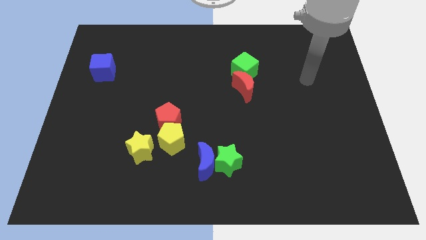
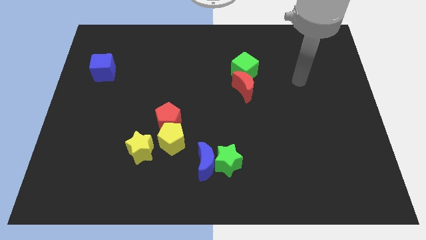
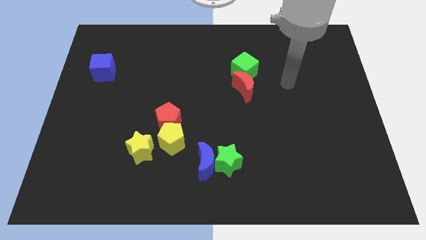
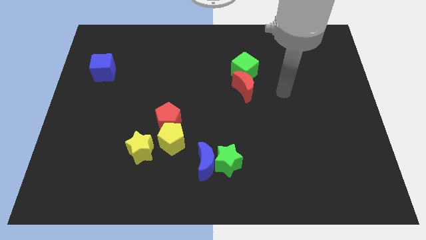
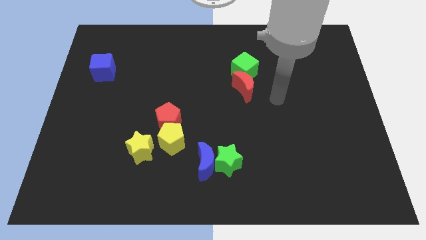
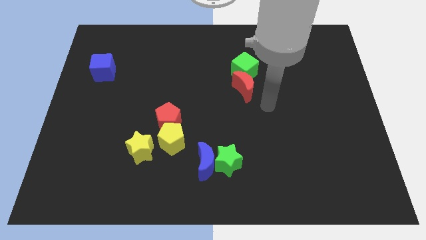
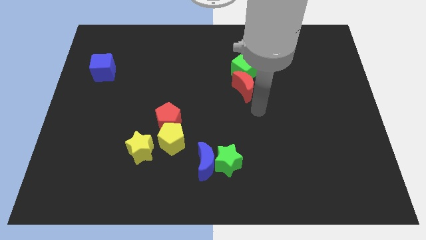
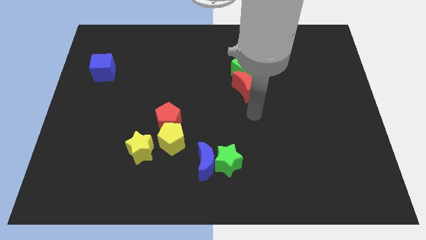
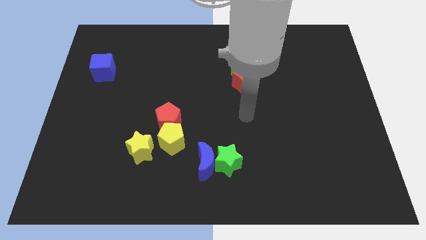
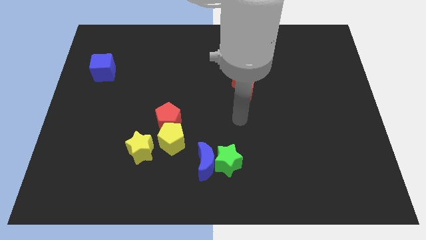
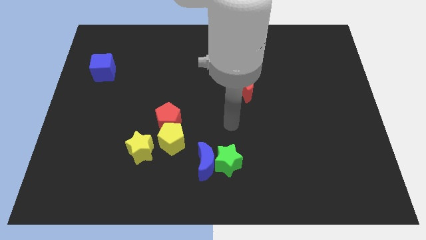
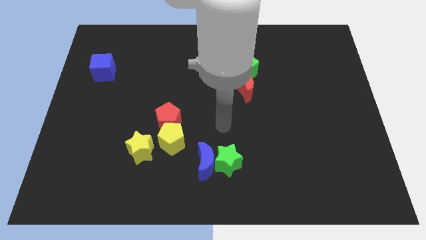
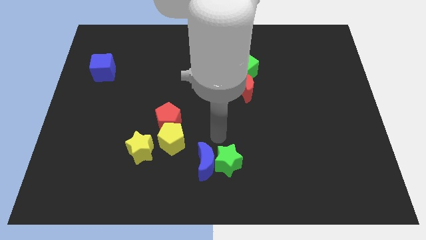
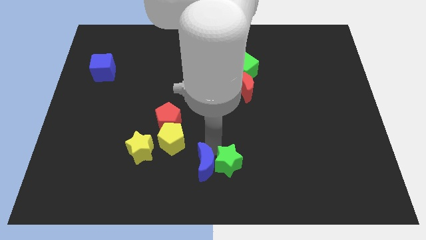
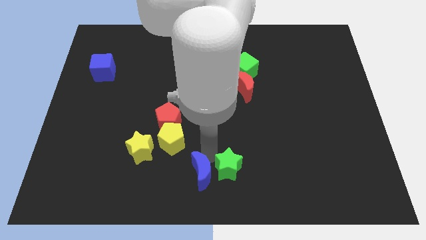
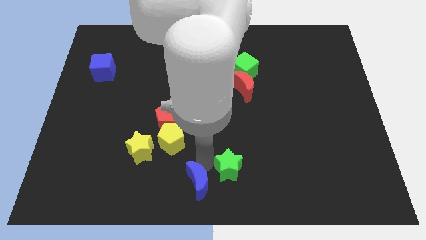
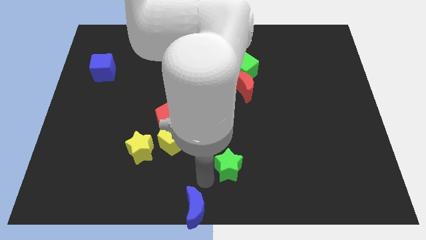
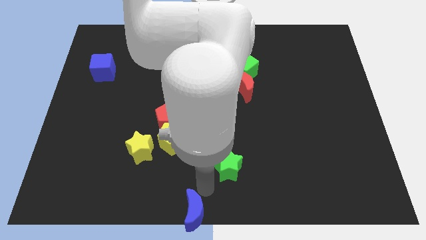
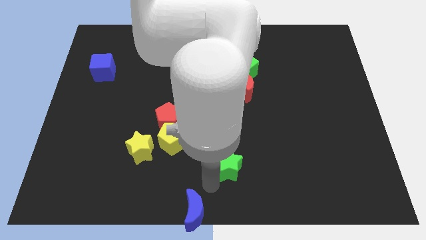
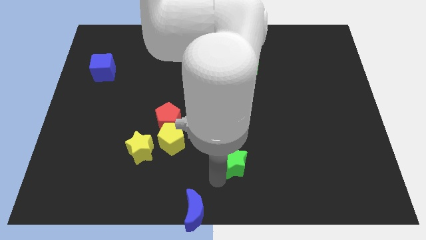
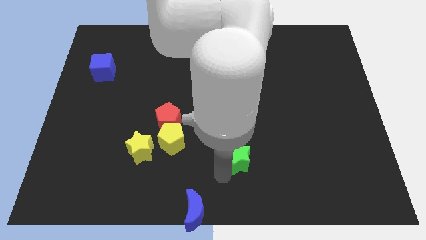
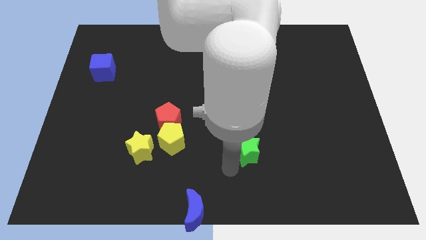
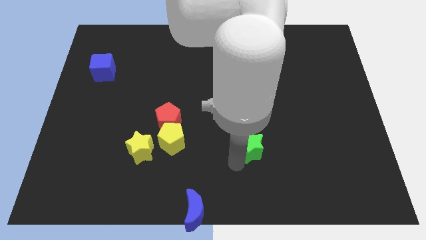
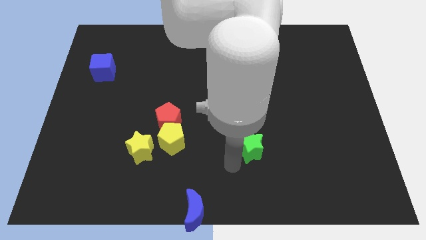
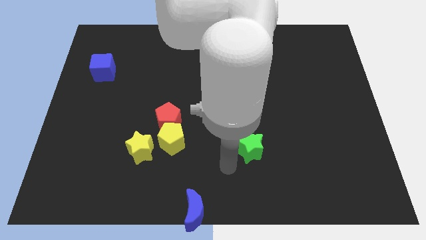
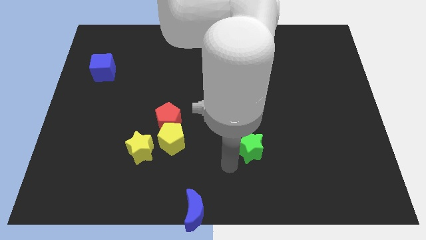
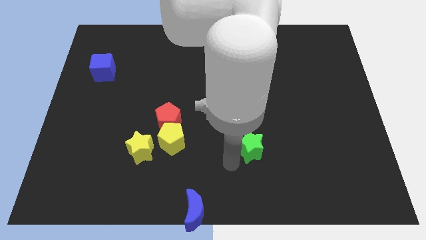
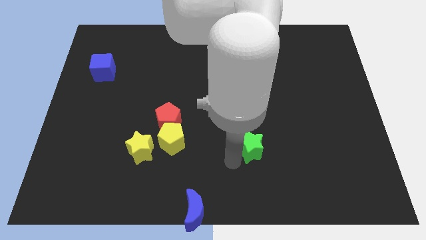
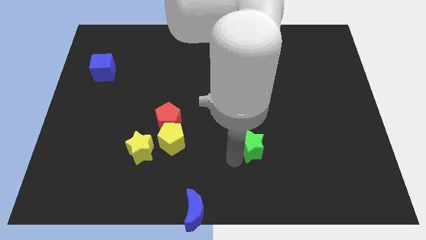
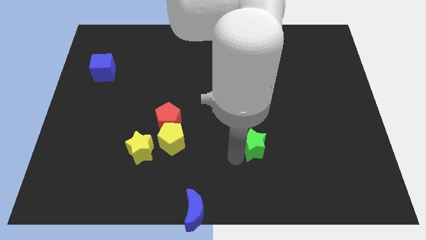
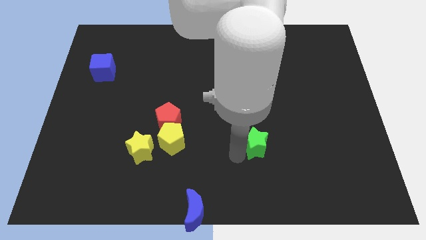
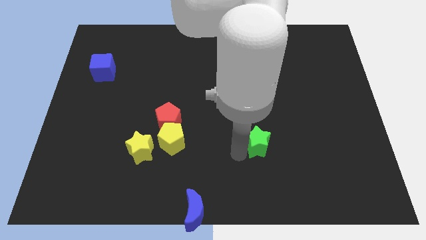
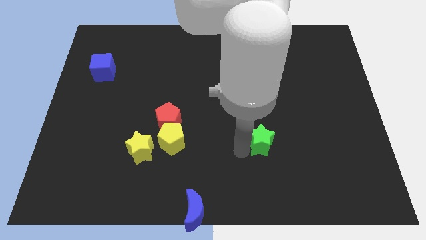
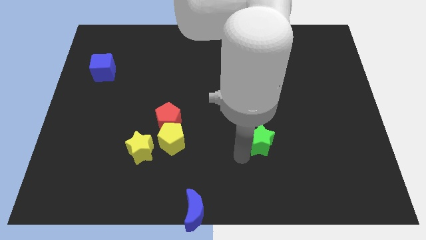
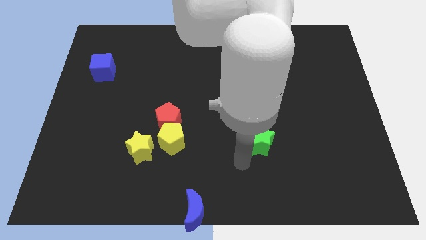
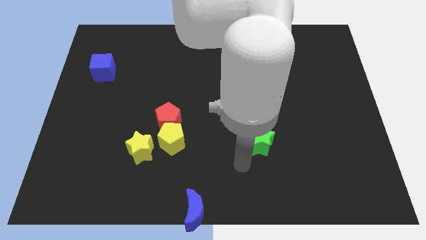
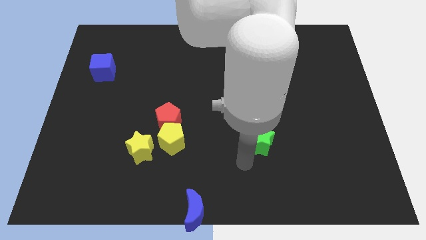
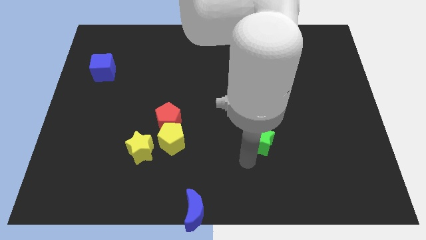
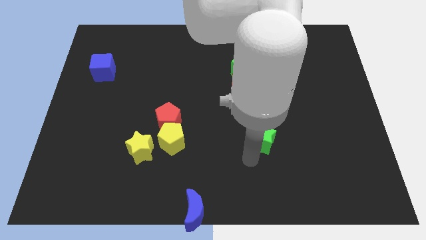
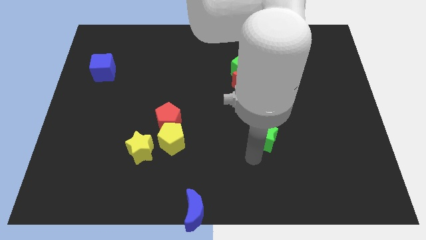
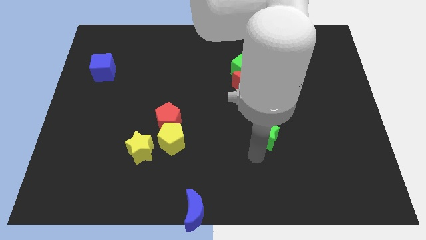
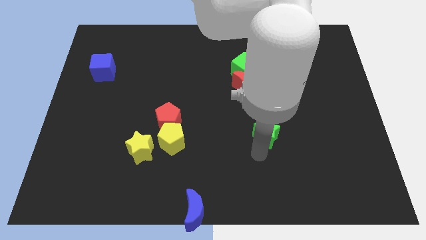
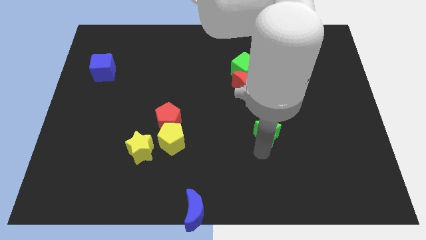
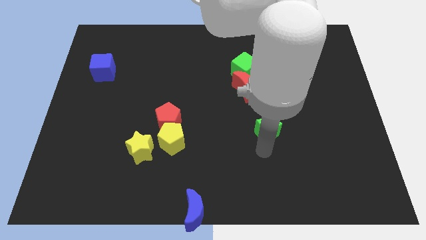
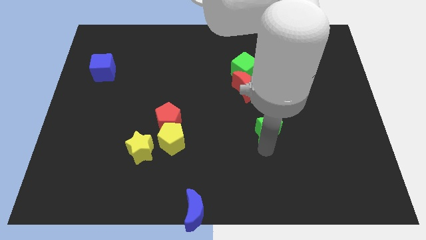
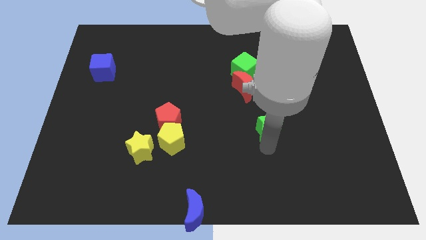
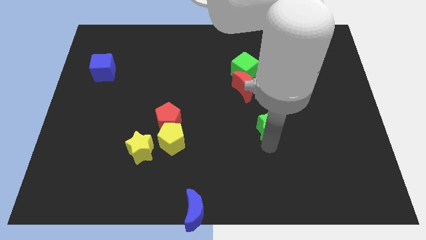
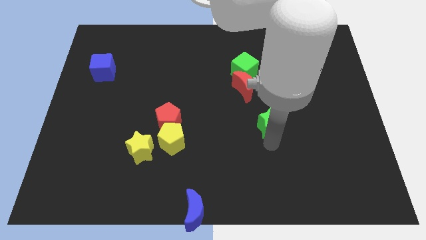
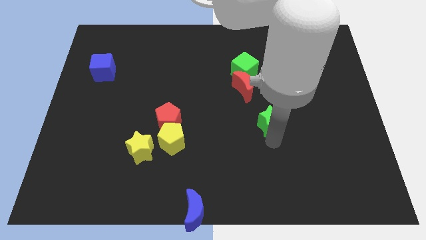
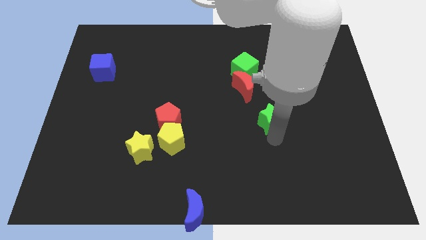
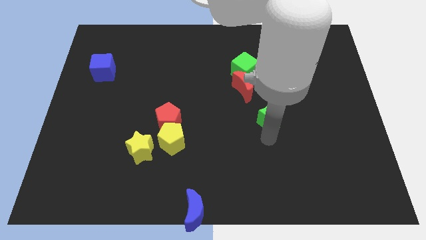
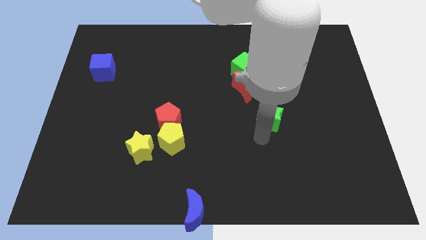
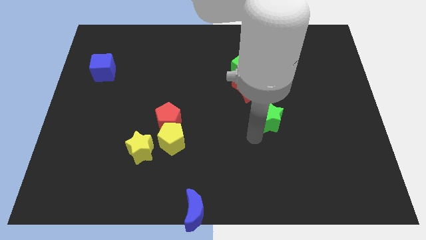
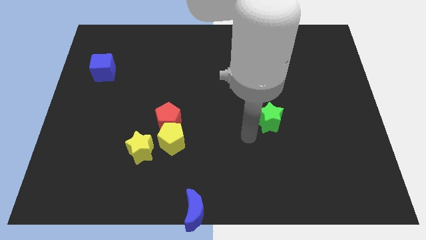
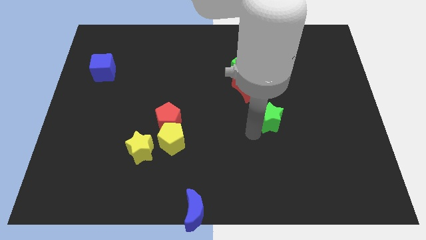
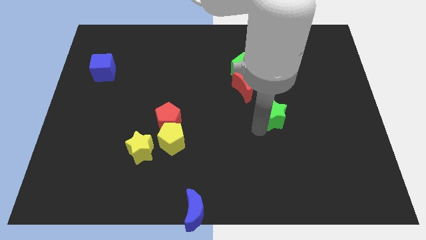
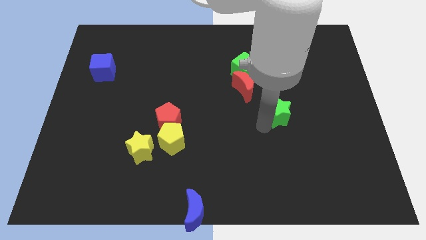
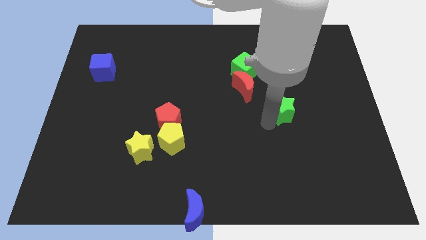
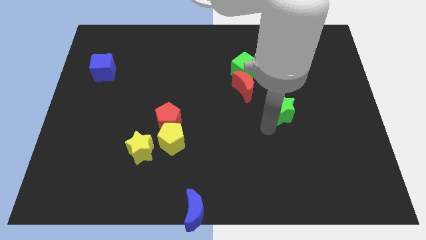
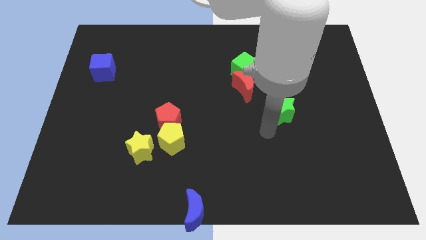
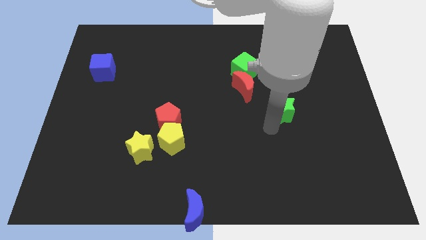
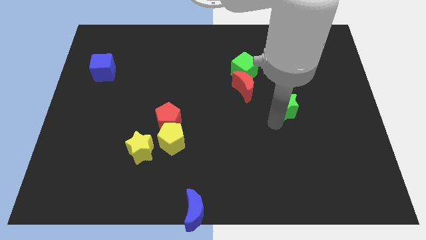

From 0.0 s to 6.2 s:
push the green star diagonally upwards and right

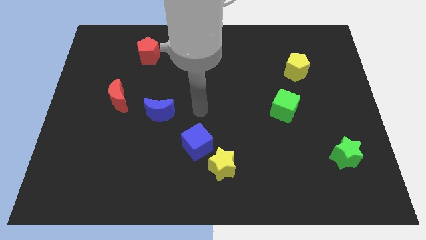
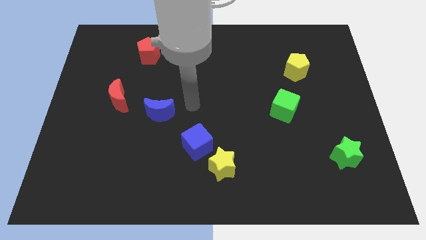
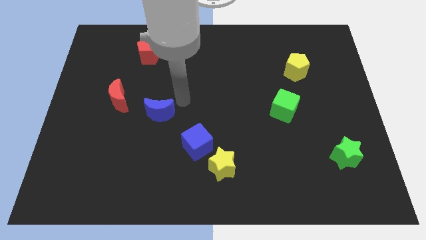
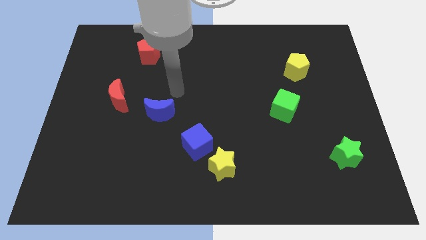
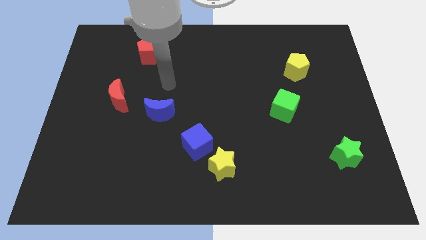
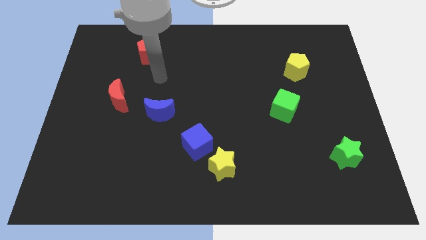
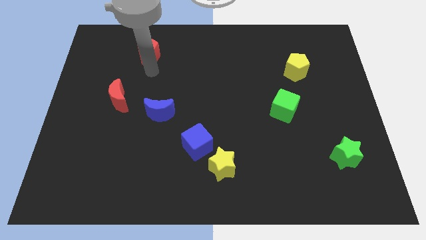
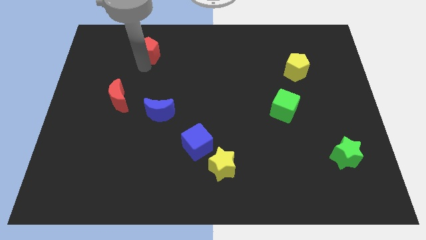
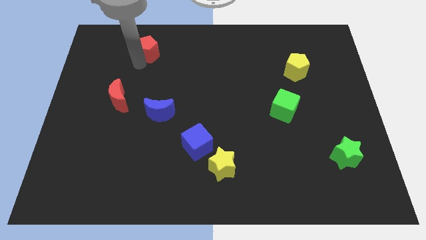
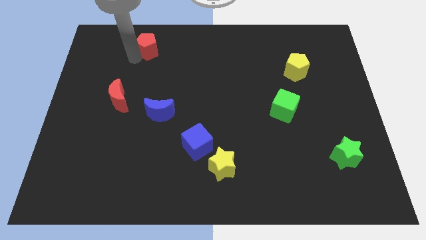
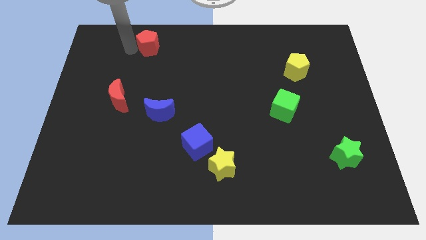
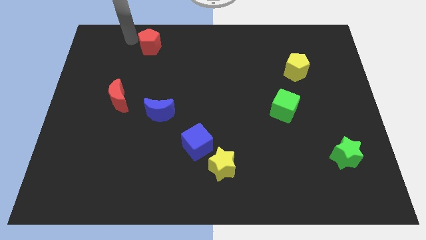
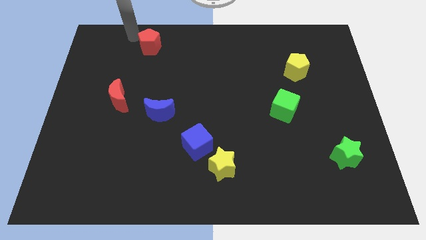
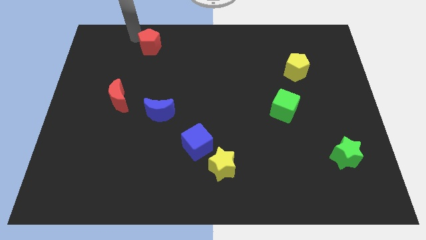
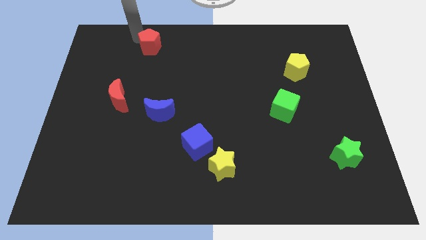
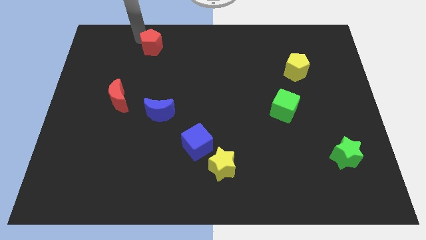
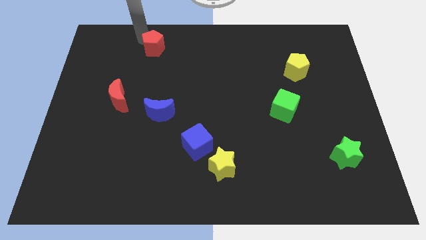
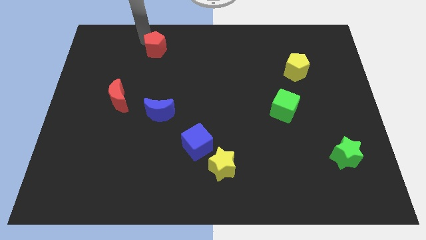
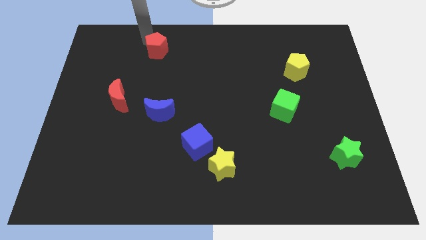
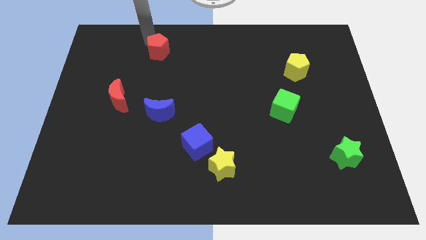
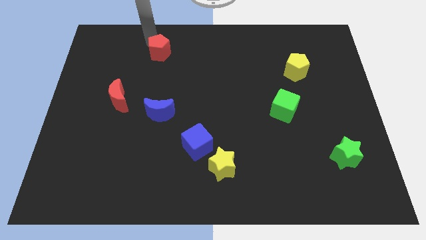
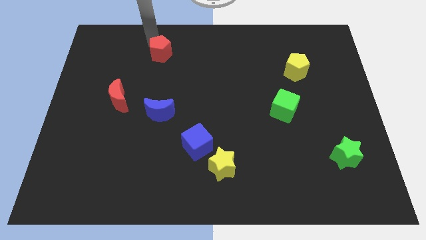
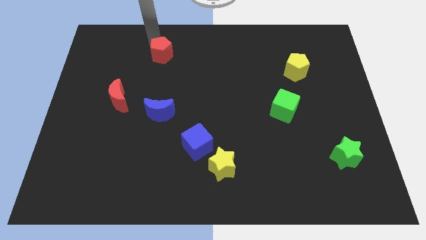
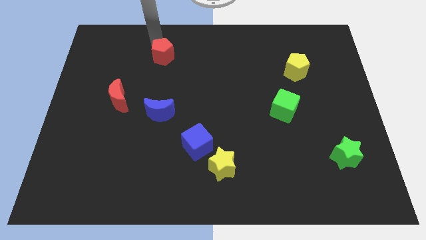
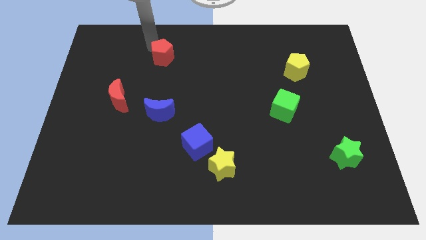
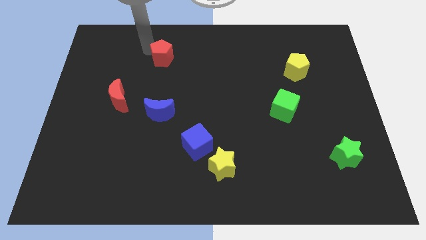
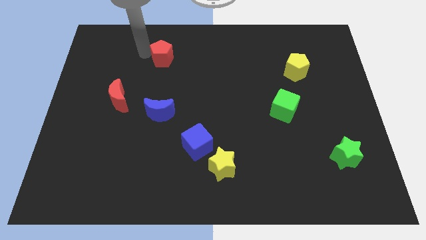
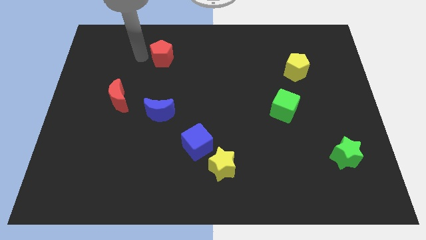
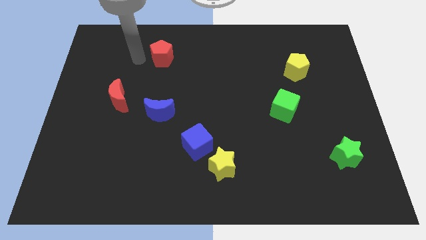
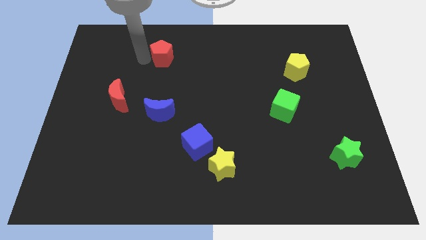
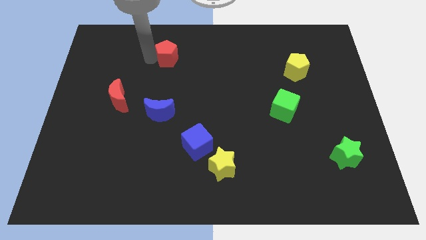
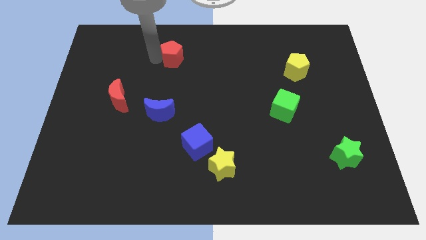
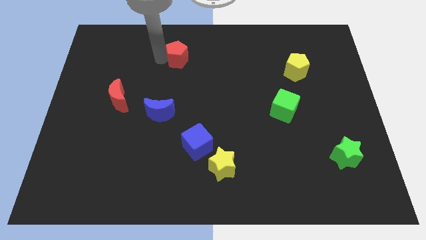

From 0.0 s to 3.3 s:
push the red pentagon right somewhat
